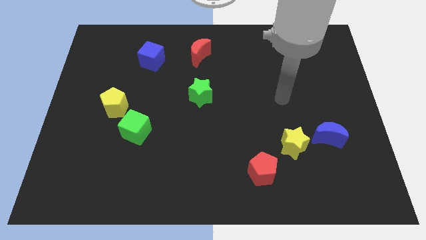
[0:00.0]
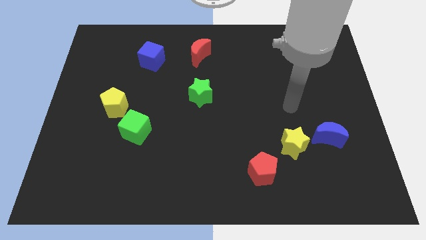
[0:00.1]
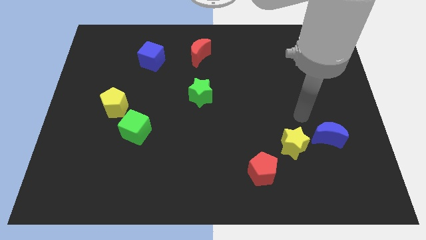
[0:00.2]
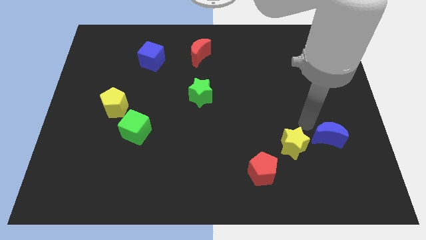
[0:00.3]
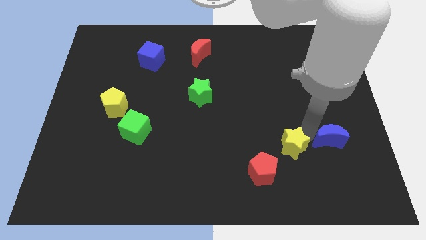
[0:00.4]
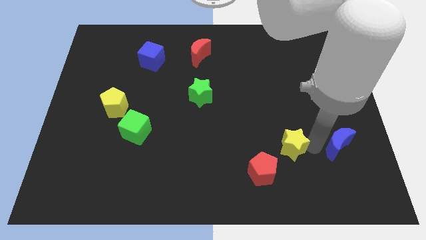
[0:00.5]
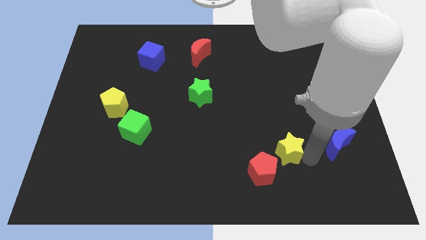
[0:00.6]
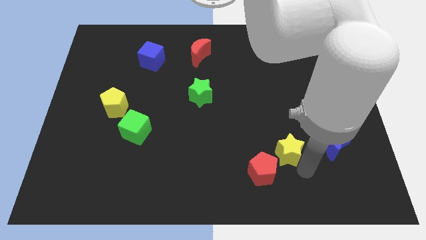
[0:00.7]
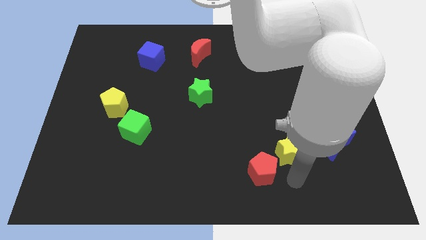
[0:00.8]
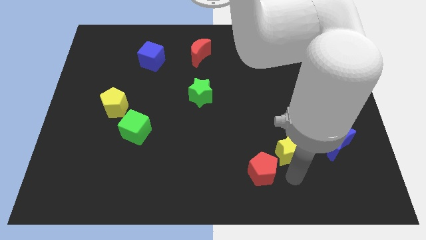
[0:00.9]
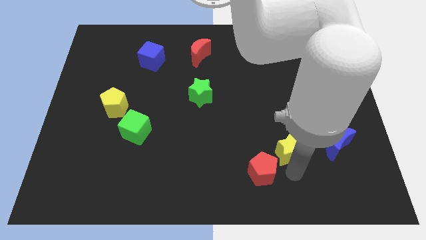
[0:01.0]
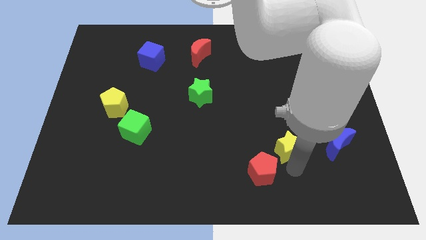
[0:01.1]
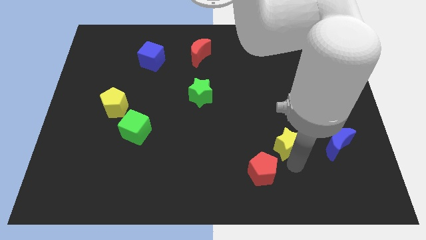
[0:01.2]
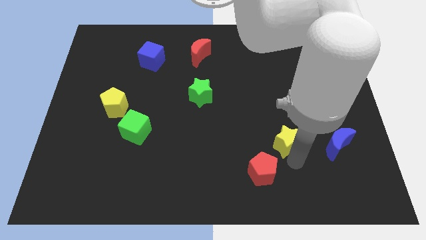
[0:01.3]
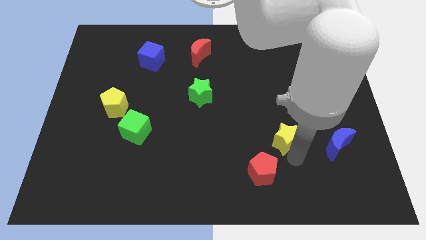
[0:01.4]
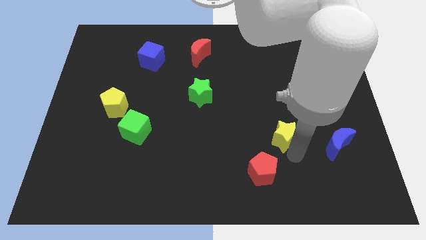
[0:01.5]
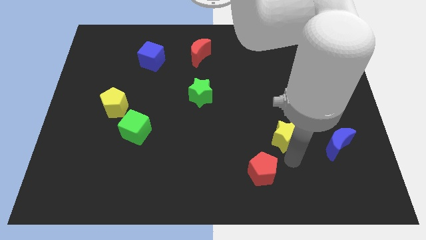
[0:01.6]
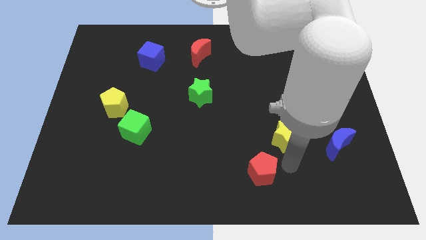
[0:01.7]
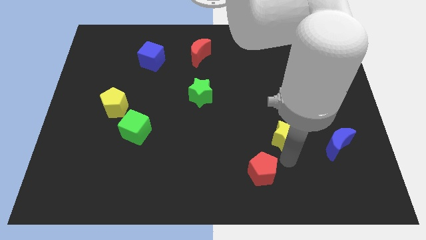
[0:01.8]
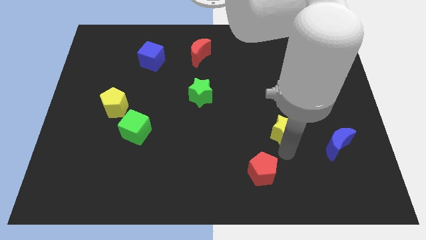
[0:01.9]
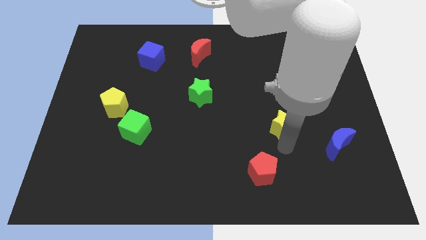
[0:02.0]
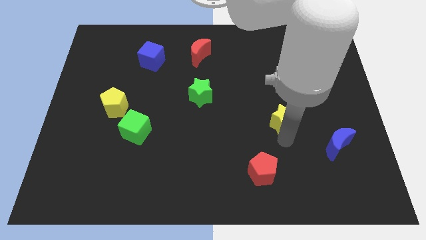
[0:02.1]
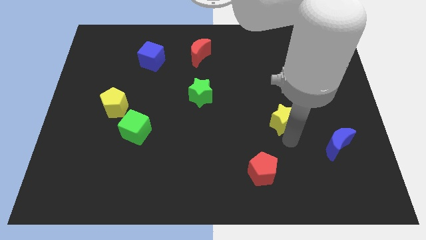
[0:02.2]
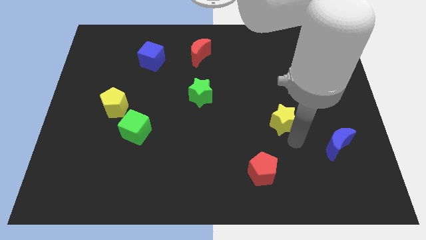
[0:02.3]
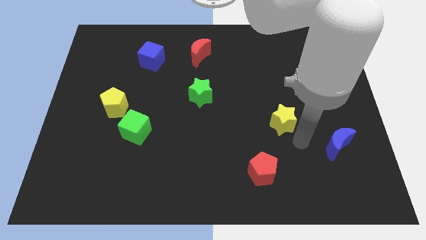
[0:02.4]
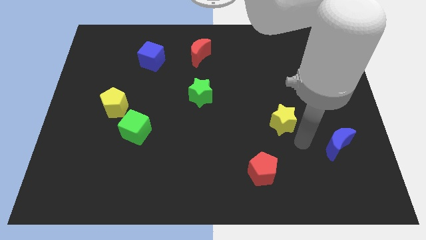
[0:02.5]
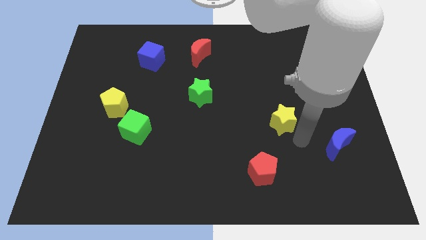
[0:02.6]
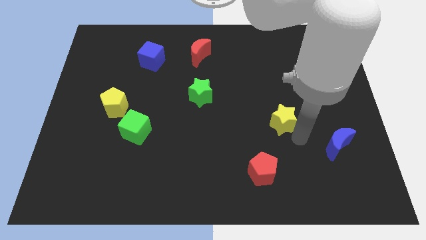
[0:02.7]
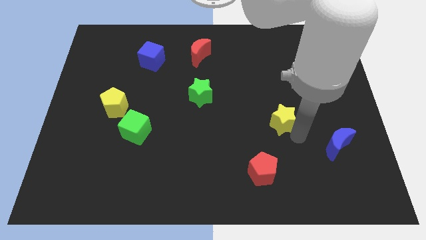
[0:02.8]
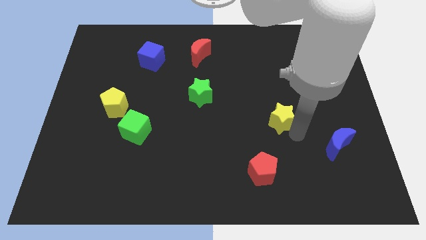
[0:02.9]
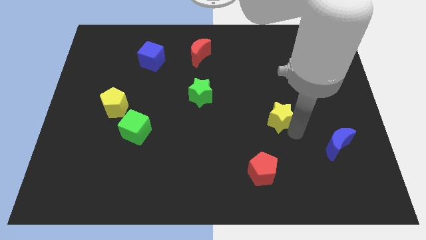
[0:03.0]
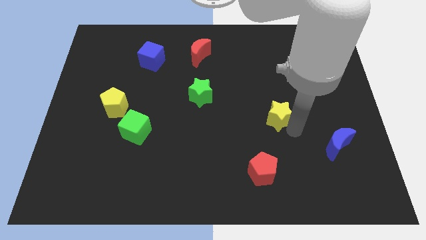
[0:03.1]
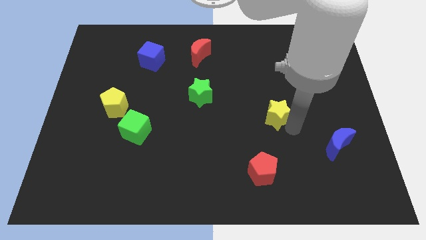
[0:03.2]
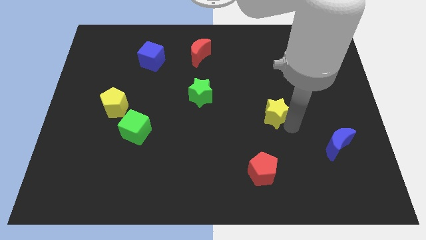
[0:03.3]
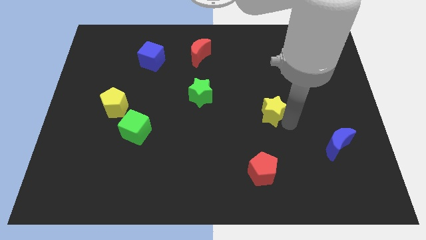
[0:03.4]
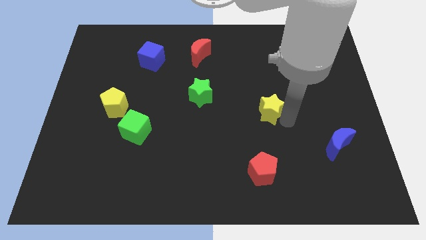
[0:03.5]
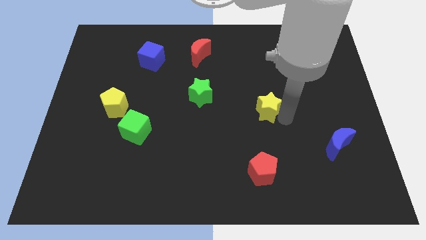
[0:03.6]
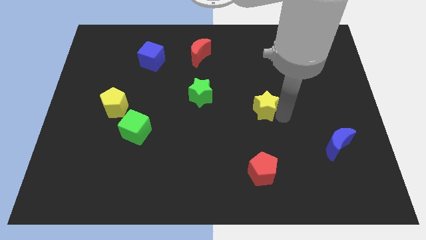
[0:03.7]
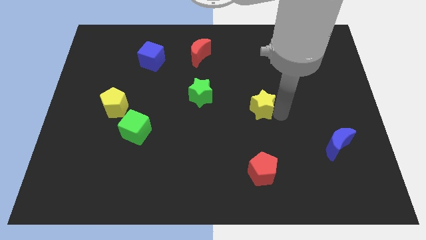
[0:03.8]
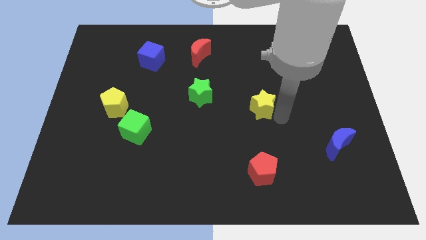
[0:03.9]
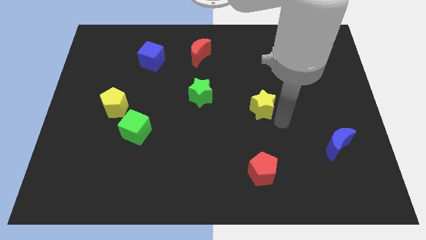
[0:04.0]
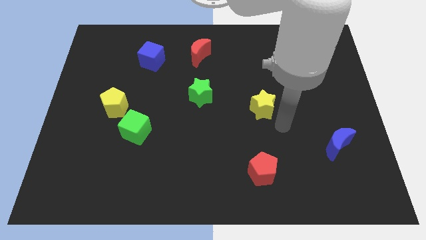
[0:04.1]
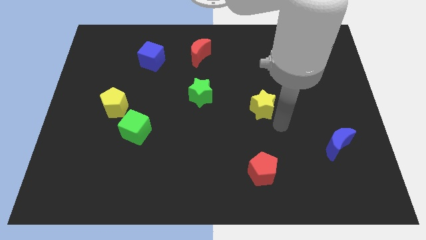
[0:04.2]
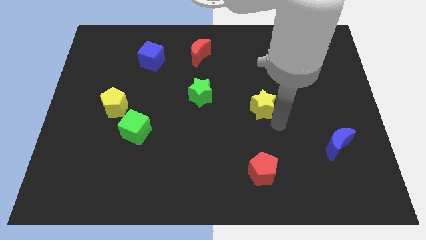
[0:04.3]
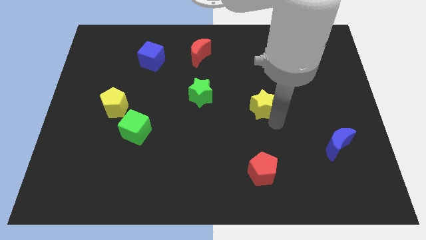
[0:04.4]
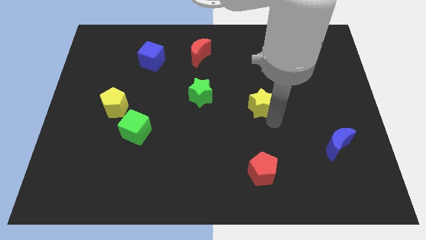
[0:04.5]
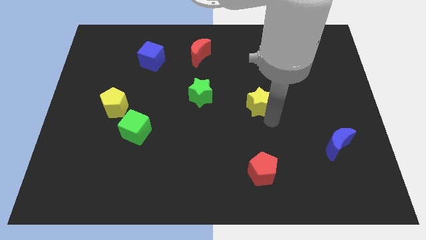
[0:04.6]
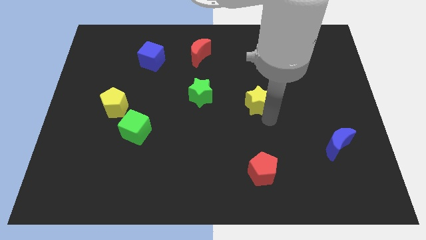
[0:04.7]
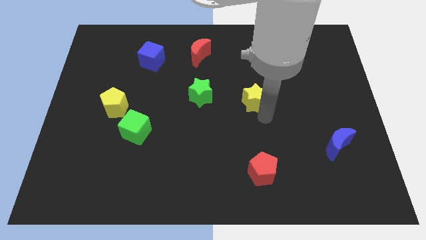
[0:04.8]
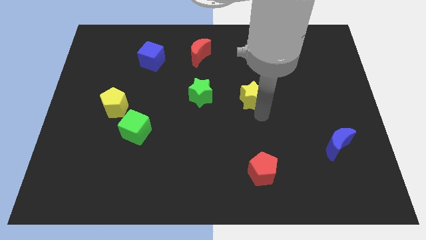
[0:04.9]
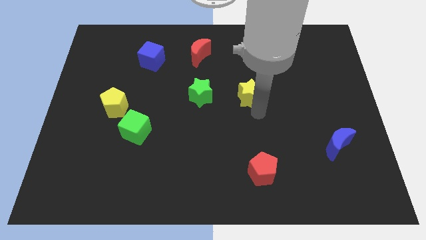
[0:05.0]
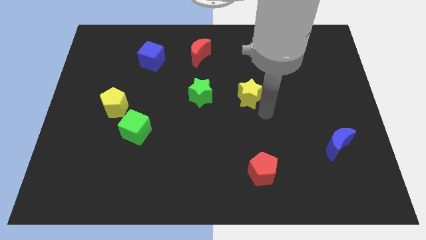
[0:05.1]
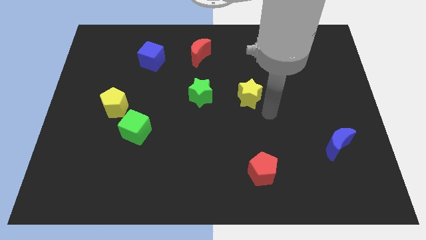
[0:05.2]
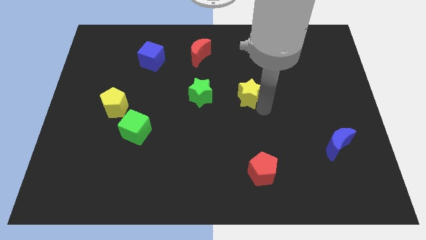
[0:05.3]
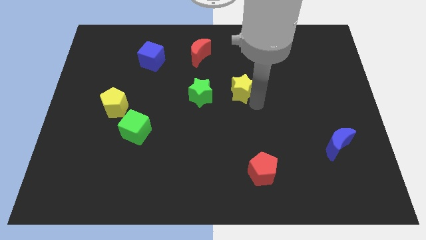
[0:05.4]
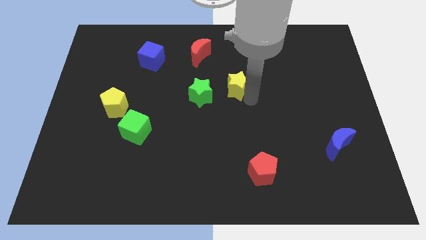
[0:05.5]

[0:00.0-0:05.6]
push the yellow star diagonally up and to the right of the green star

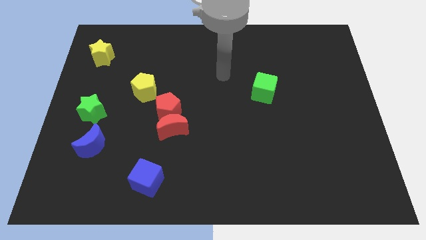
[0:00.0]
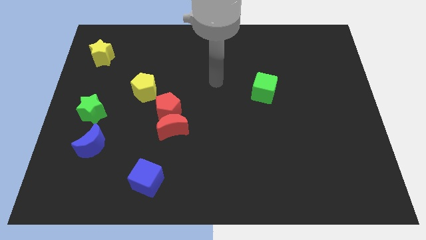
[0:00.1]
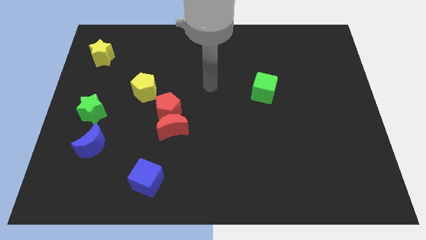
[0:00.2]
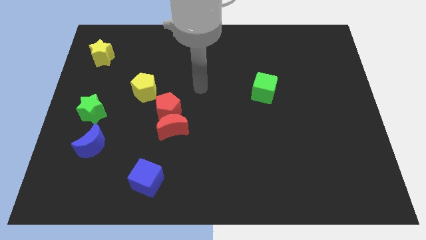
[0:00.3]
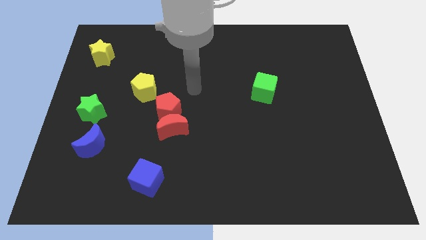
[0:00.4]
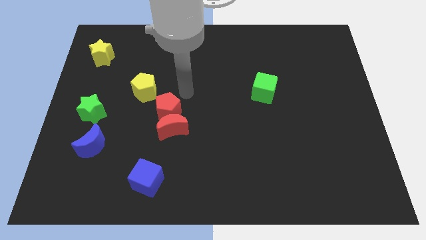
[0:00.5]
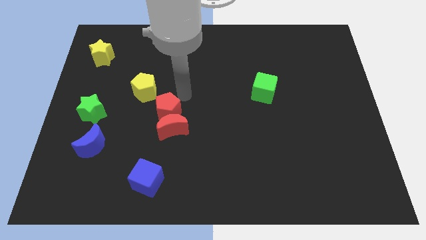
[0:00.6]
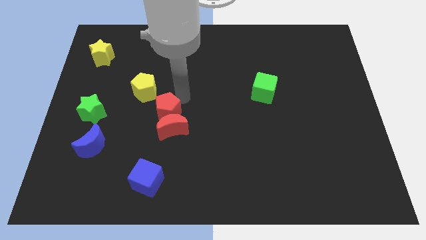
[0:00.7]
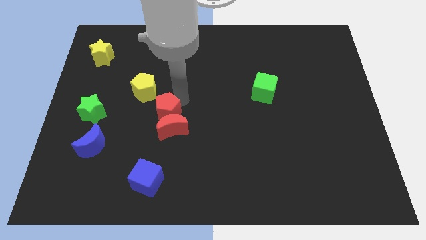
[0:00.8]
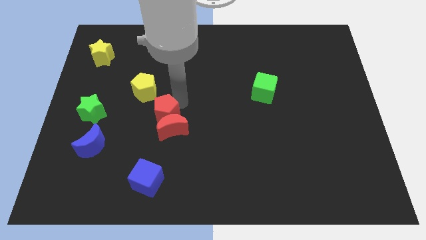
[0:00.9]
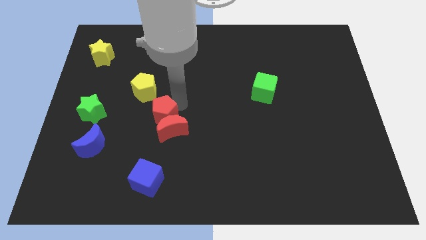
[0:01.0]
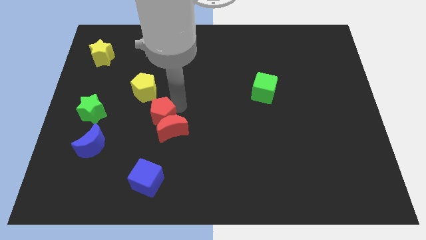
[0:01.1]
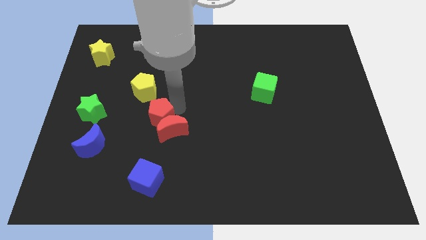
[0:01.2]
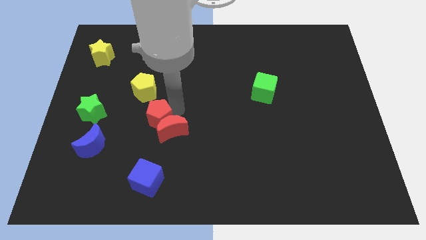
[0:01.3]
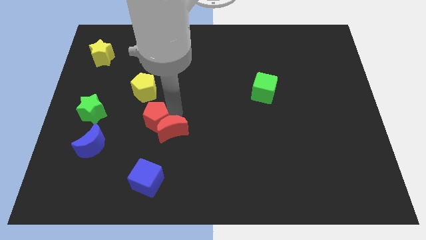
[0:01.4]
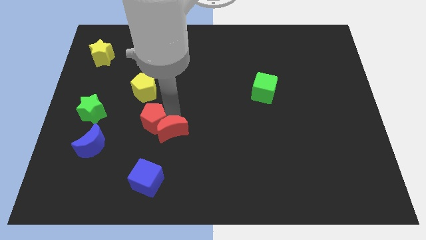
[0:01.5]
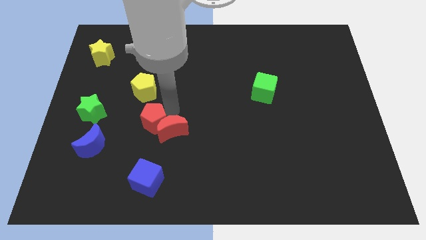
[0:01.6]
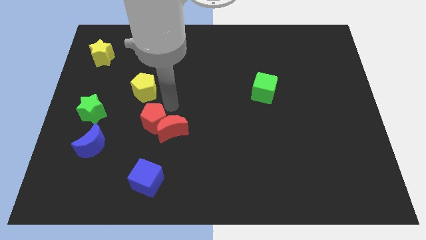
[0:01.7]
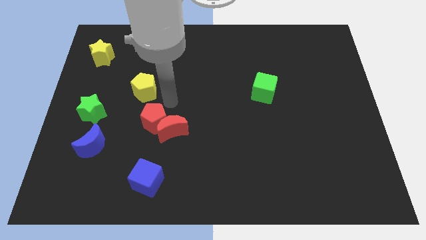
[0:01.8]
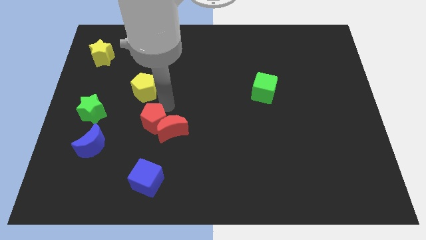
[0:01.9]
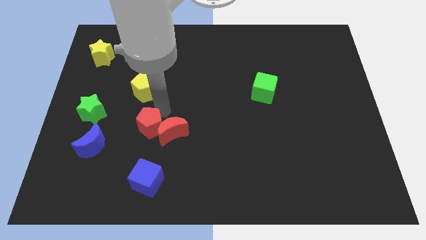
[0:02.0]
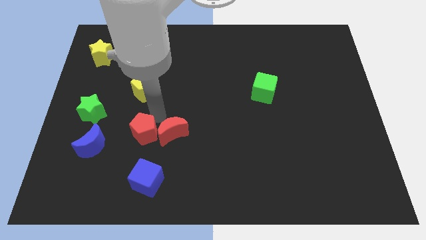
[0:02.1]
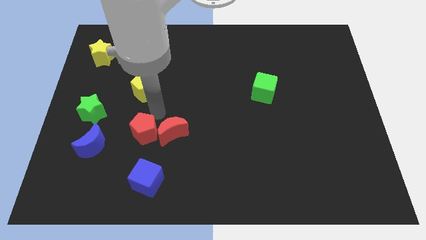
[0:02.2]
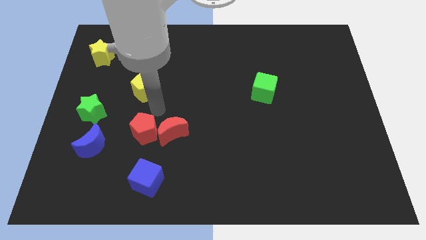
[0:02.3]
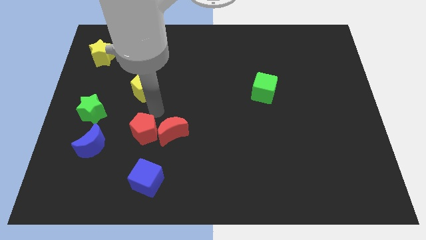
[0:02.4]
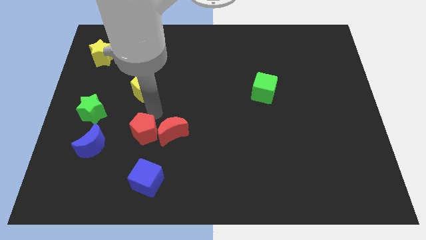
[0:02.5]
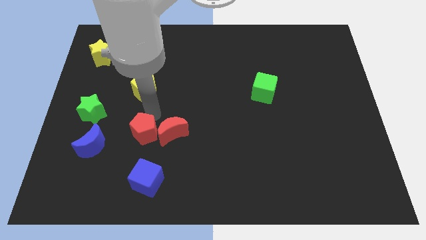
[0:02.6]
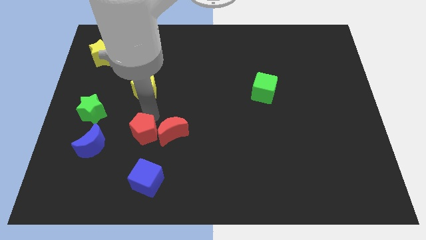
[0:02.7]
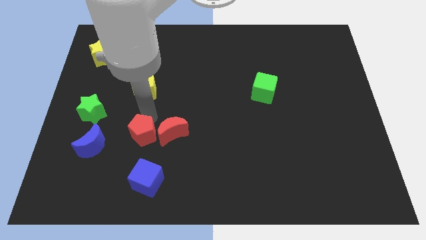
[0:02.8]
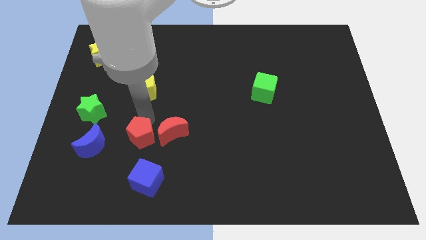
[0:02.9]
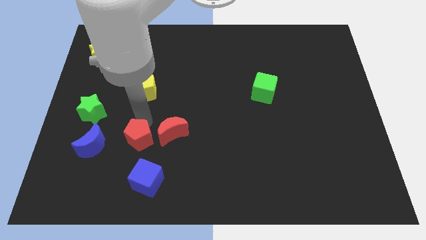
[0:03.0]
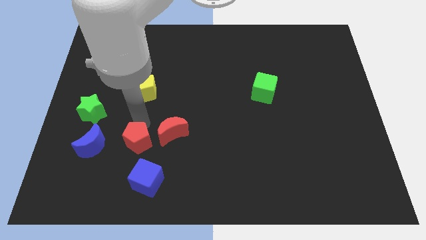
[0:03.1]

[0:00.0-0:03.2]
slide the red pentagon to the top left of the blue cube
